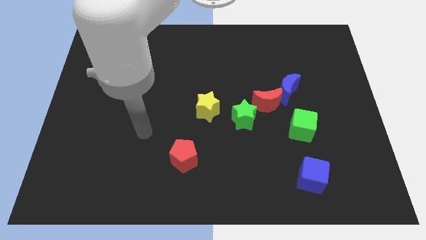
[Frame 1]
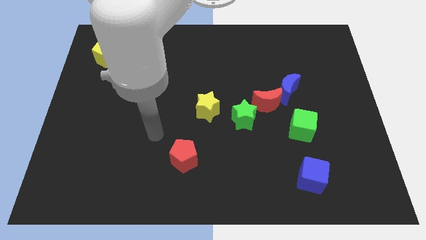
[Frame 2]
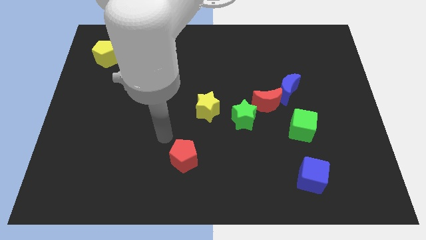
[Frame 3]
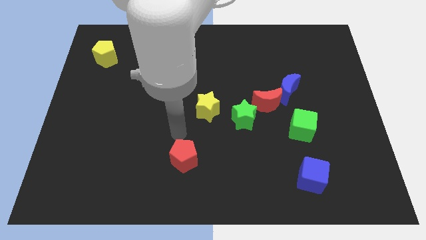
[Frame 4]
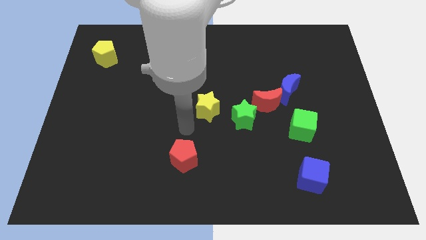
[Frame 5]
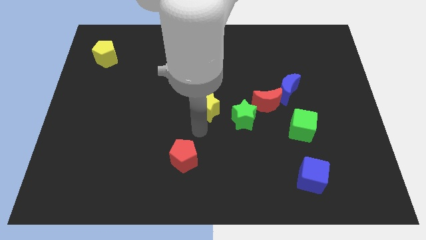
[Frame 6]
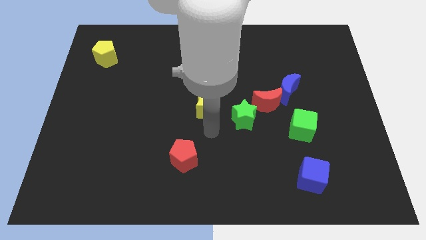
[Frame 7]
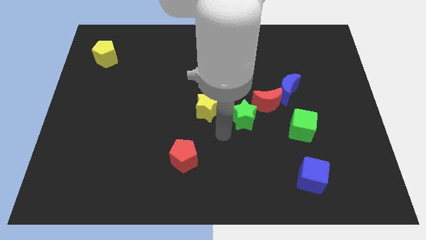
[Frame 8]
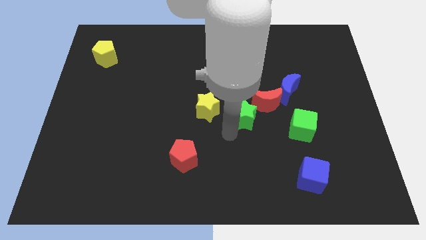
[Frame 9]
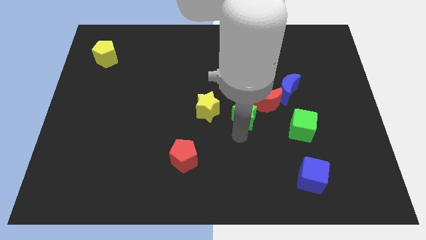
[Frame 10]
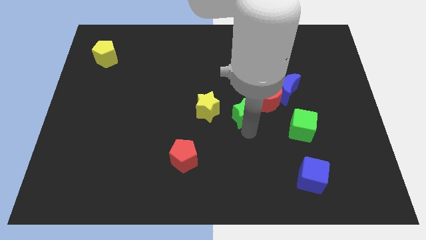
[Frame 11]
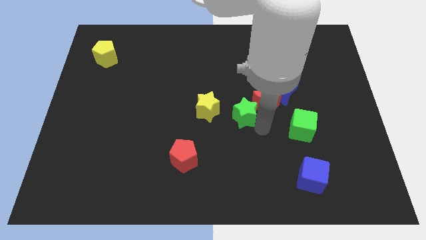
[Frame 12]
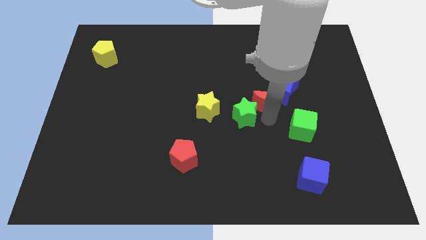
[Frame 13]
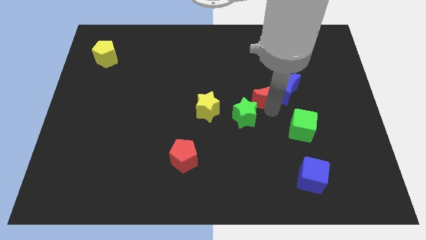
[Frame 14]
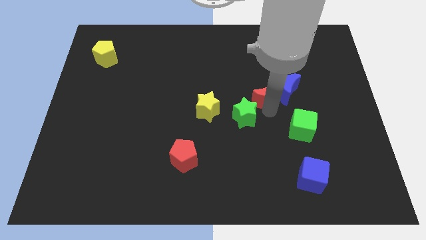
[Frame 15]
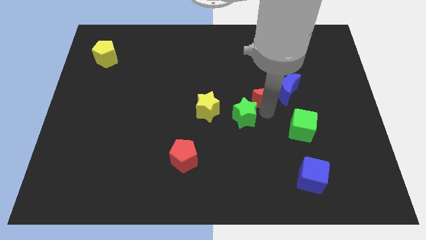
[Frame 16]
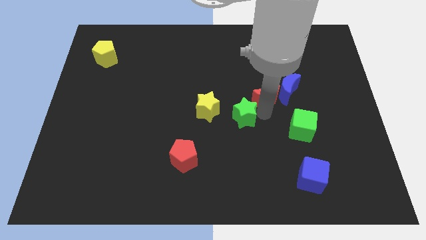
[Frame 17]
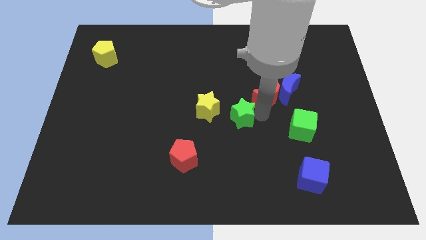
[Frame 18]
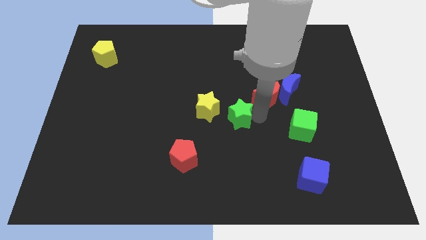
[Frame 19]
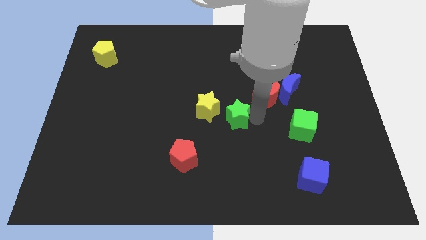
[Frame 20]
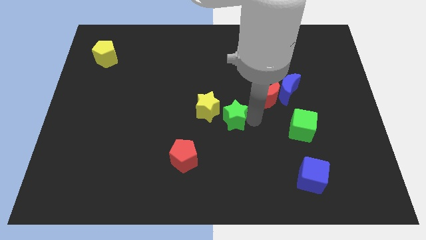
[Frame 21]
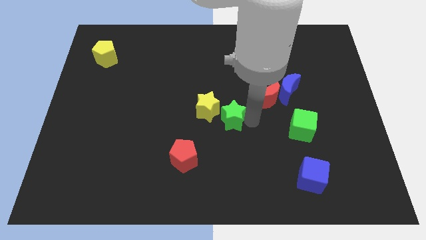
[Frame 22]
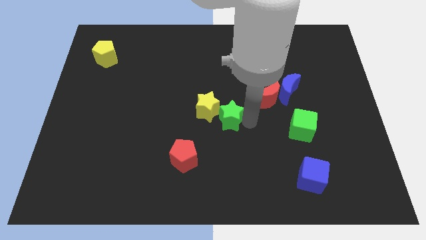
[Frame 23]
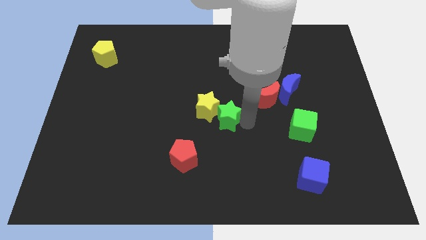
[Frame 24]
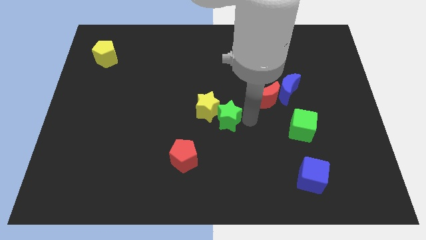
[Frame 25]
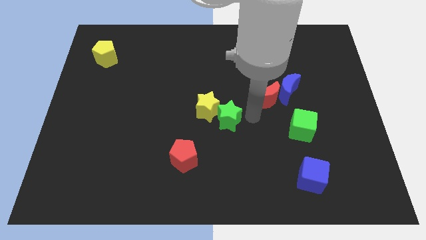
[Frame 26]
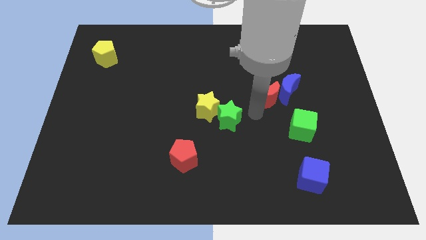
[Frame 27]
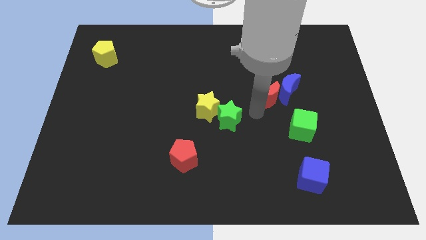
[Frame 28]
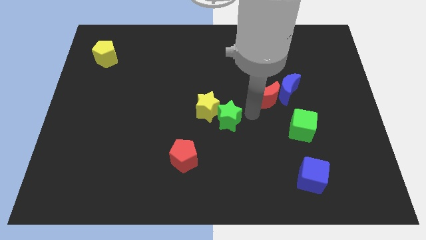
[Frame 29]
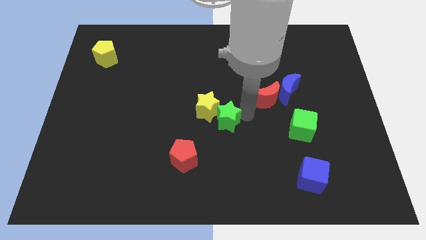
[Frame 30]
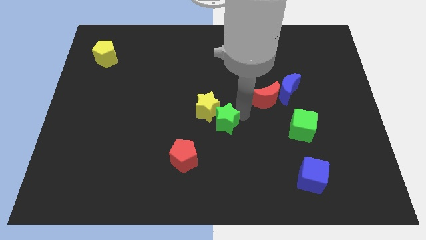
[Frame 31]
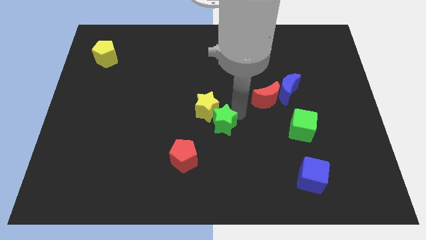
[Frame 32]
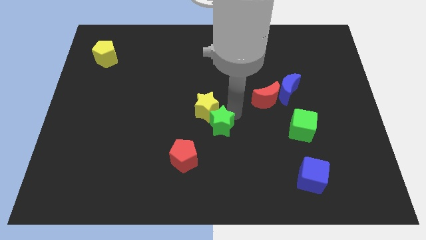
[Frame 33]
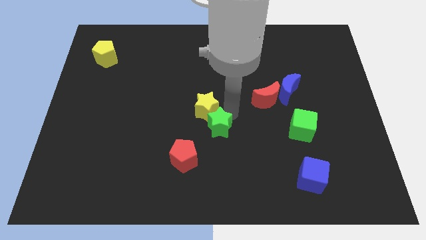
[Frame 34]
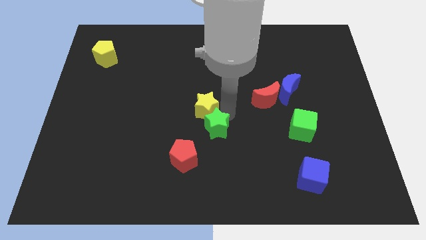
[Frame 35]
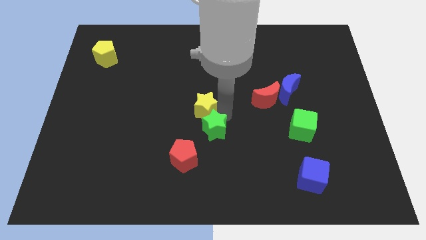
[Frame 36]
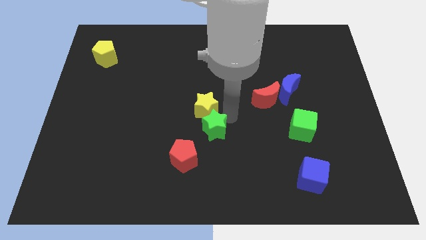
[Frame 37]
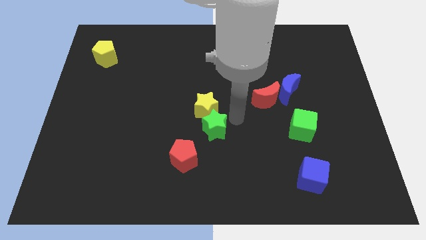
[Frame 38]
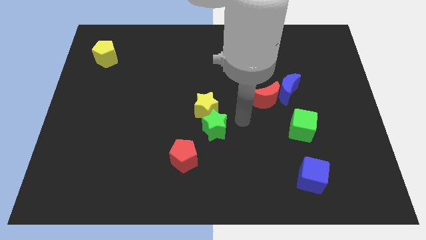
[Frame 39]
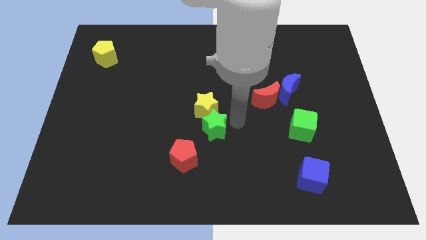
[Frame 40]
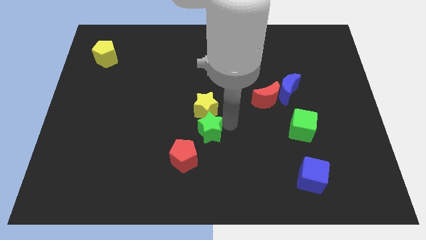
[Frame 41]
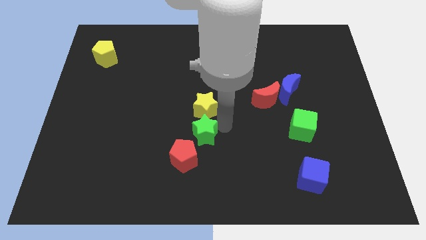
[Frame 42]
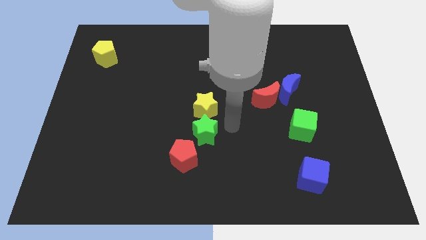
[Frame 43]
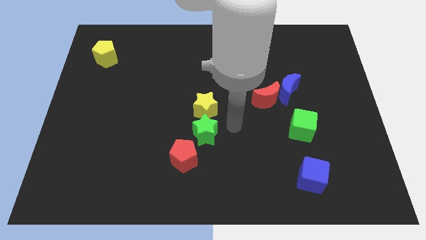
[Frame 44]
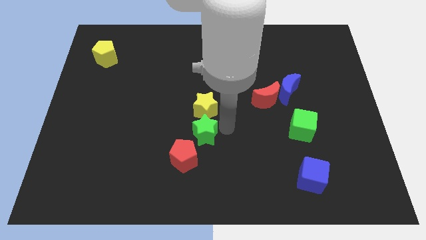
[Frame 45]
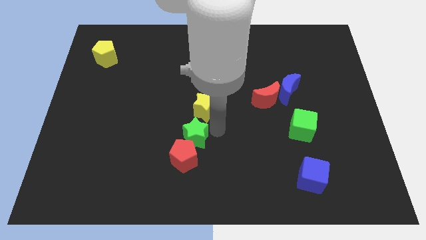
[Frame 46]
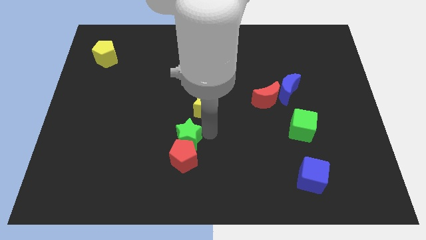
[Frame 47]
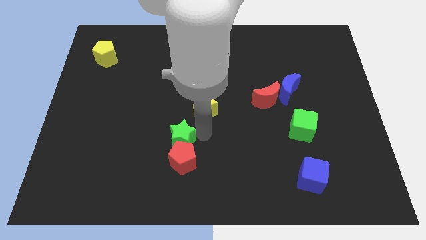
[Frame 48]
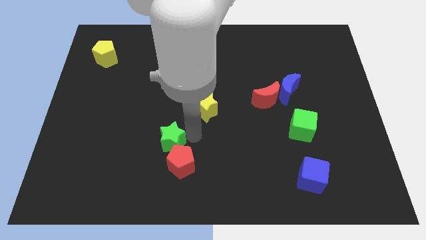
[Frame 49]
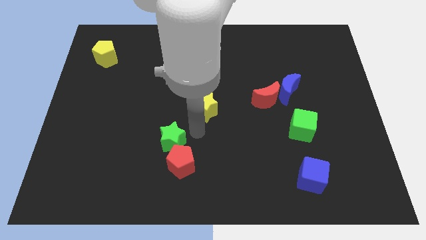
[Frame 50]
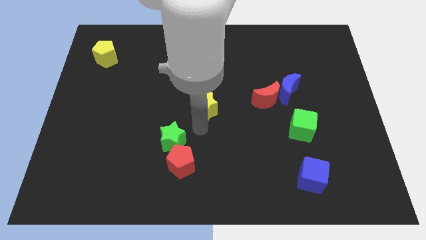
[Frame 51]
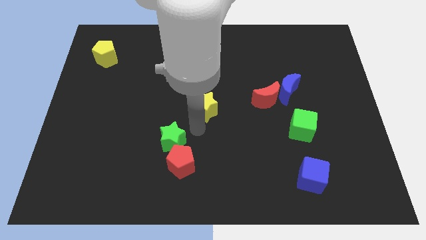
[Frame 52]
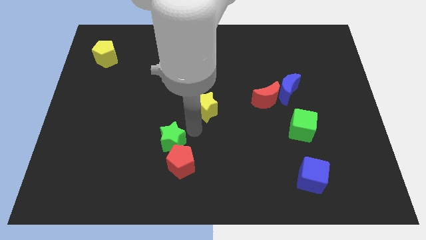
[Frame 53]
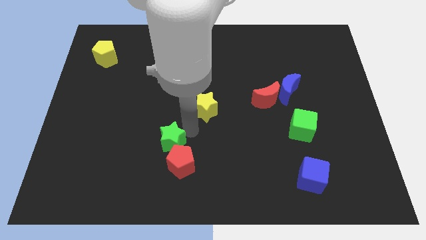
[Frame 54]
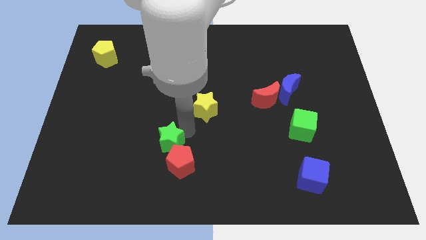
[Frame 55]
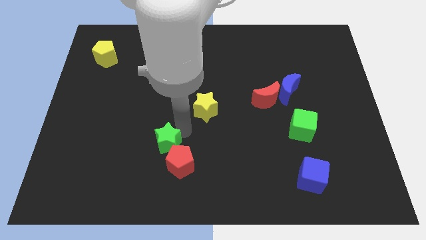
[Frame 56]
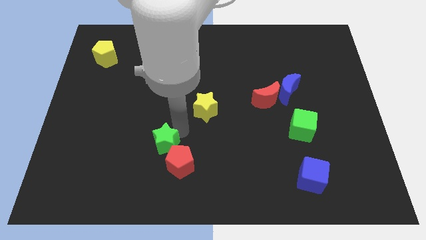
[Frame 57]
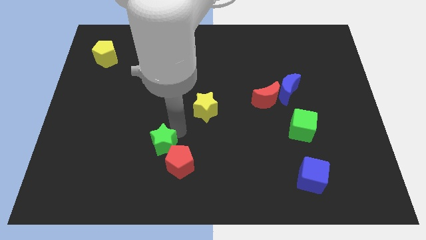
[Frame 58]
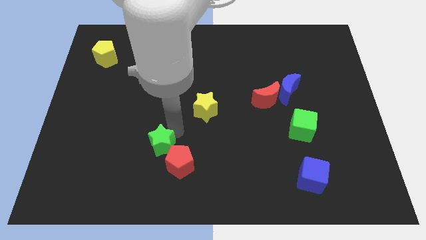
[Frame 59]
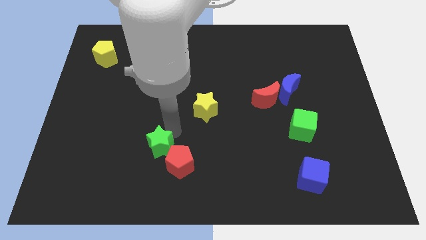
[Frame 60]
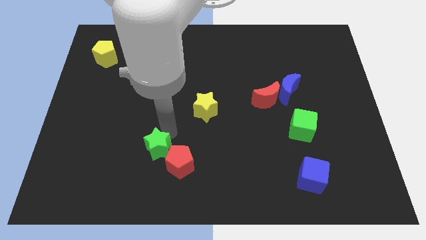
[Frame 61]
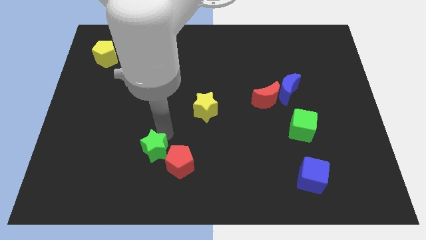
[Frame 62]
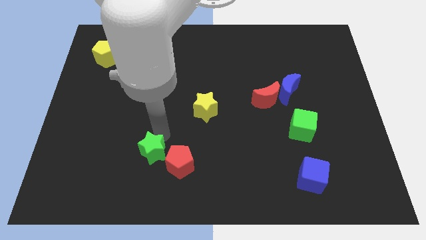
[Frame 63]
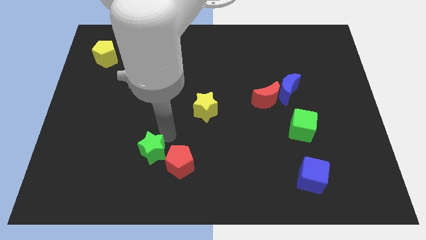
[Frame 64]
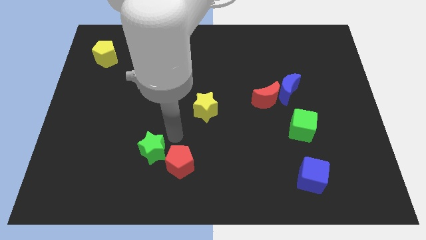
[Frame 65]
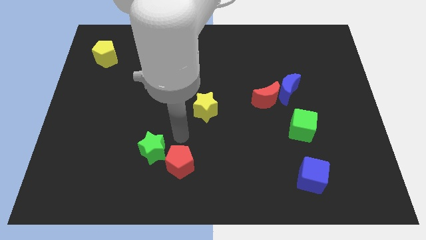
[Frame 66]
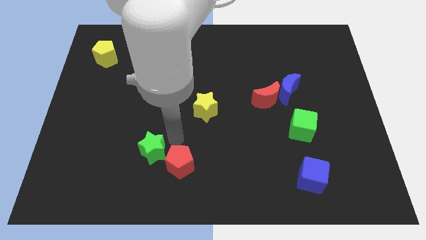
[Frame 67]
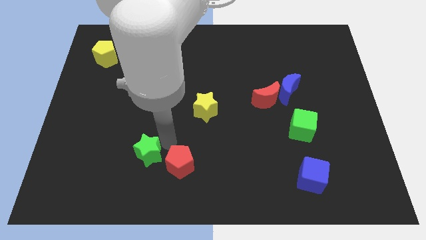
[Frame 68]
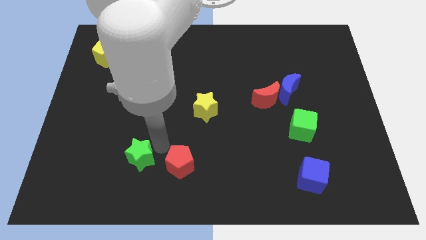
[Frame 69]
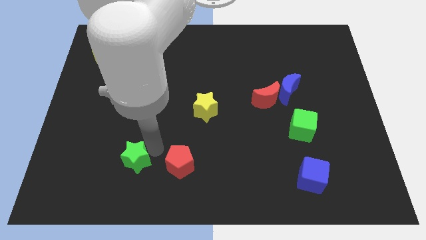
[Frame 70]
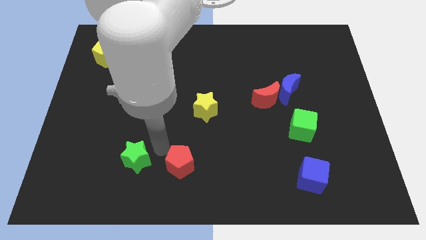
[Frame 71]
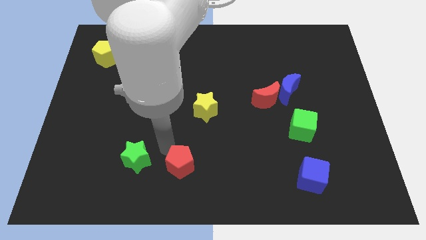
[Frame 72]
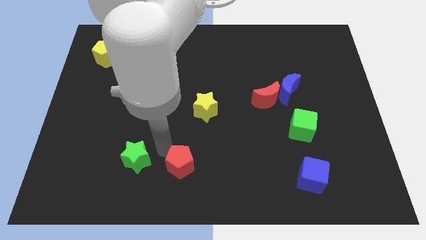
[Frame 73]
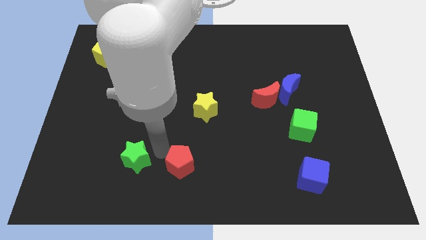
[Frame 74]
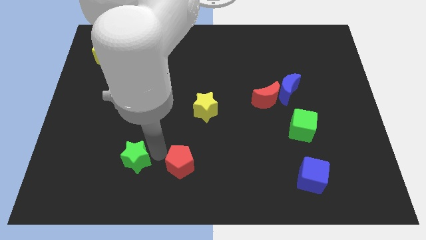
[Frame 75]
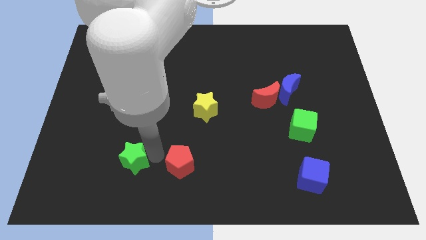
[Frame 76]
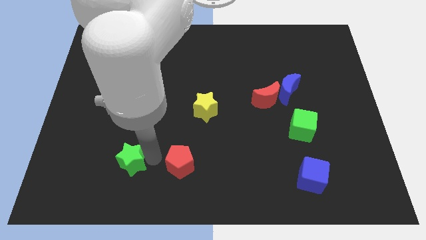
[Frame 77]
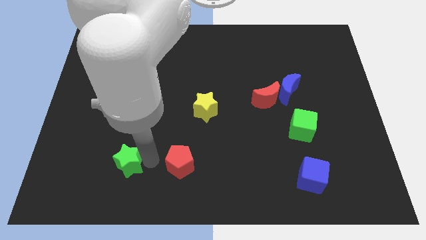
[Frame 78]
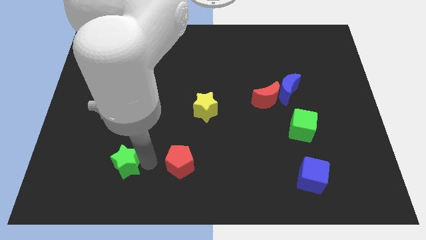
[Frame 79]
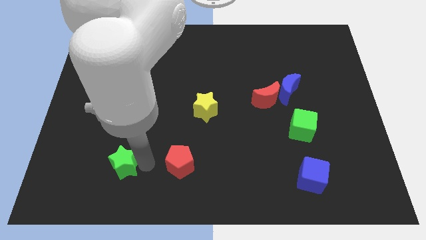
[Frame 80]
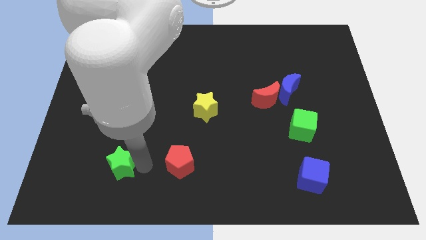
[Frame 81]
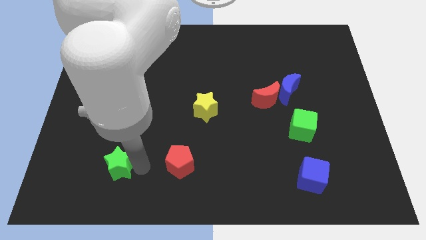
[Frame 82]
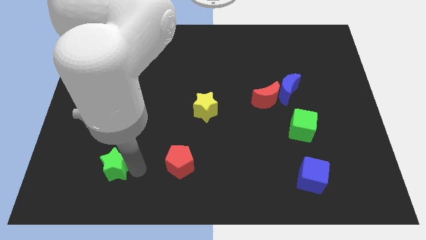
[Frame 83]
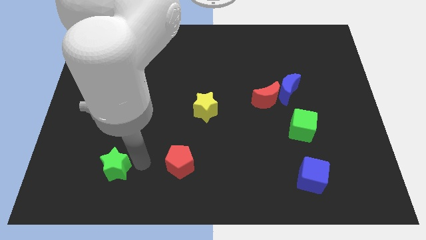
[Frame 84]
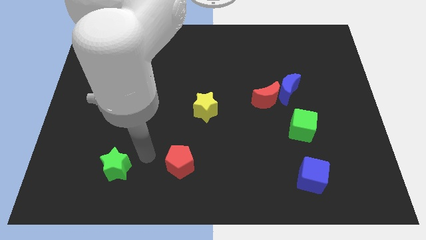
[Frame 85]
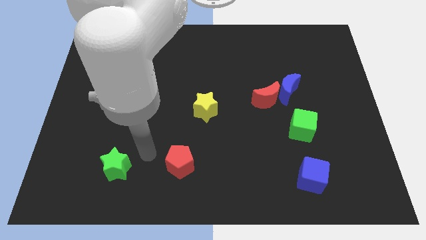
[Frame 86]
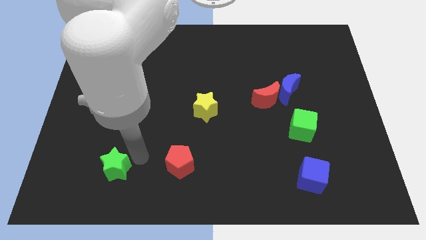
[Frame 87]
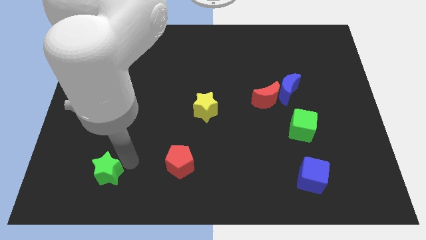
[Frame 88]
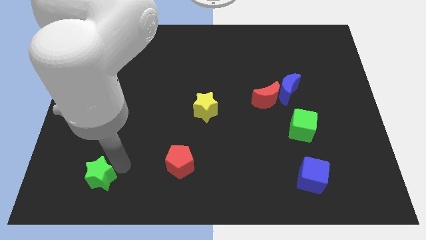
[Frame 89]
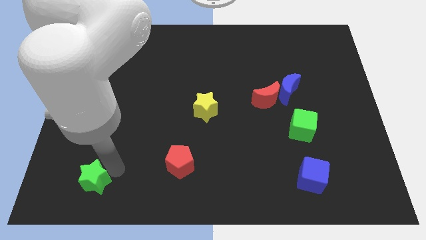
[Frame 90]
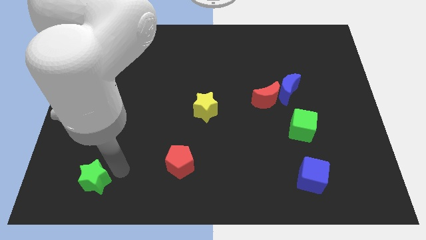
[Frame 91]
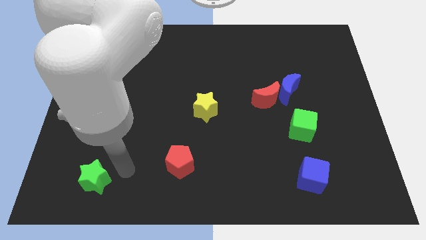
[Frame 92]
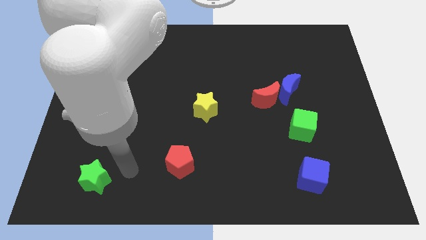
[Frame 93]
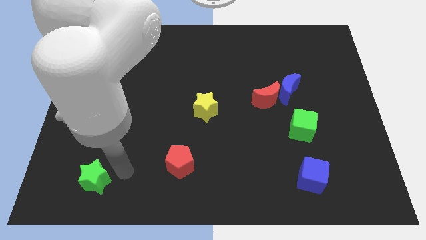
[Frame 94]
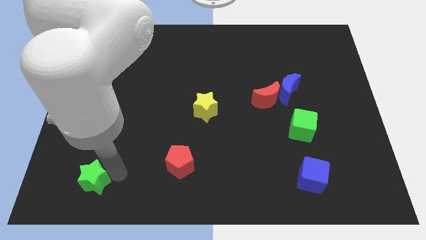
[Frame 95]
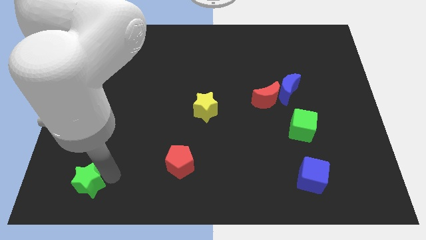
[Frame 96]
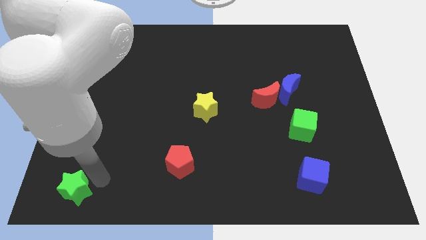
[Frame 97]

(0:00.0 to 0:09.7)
push the green star to the bottom left
